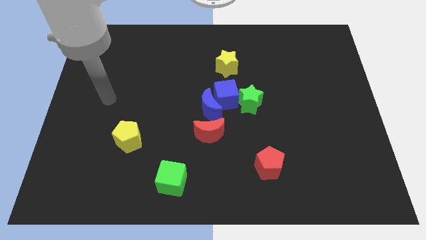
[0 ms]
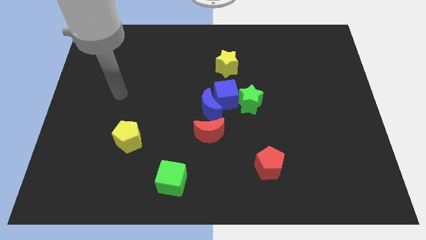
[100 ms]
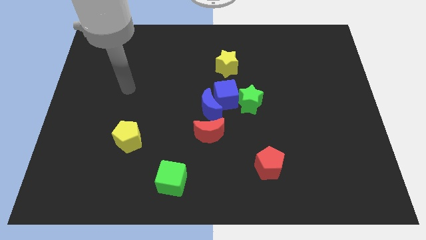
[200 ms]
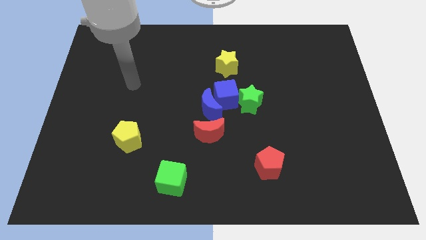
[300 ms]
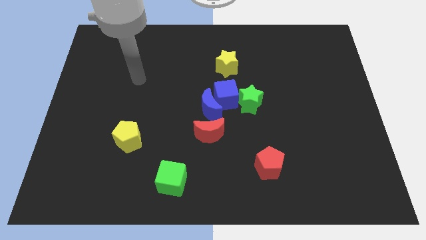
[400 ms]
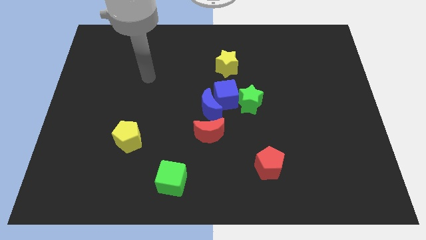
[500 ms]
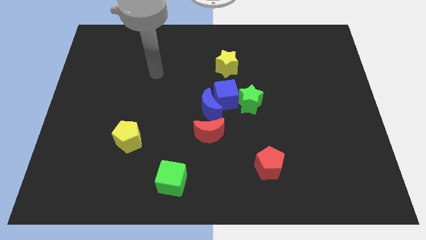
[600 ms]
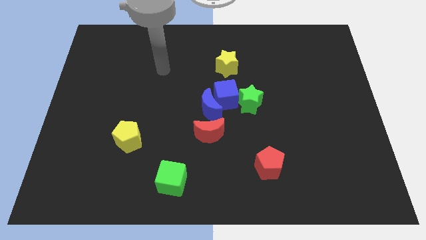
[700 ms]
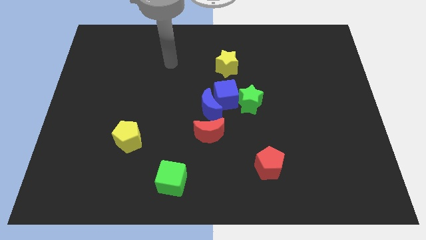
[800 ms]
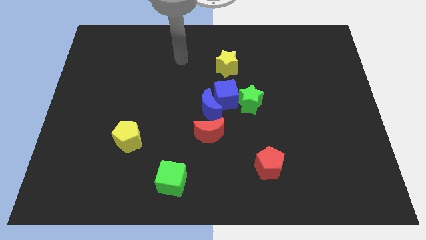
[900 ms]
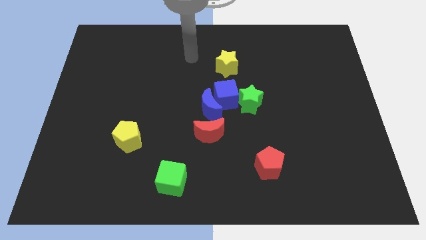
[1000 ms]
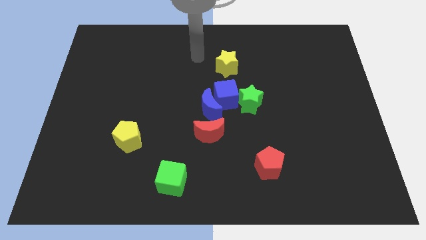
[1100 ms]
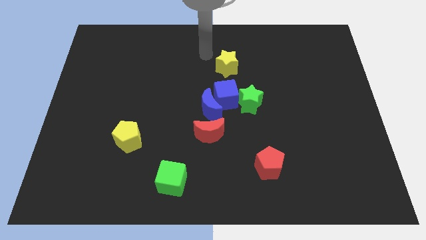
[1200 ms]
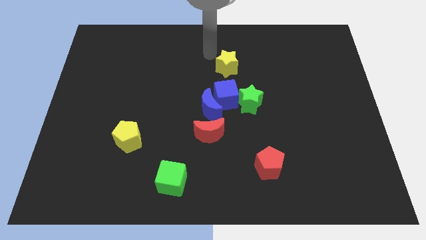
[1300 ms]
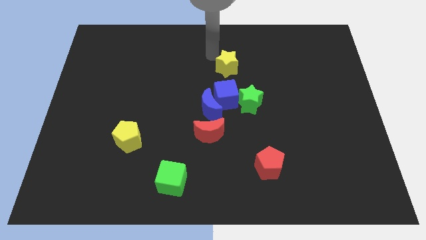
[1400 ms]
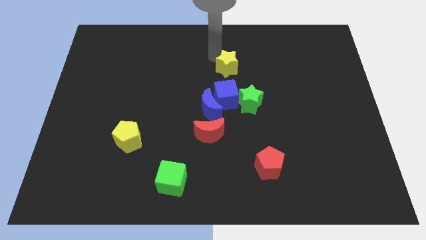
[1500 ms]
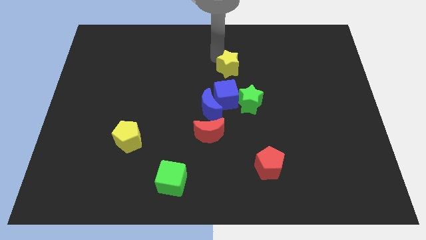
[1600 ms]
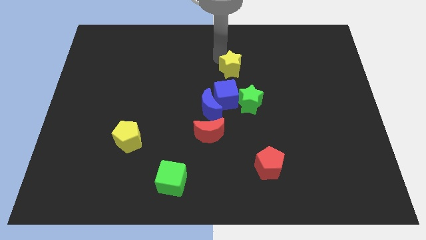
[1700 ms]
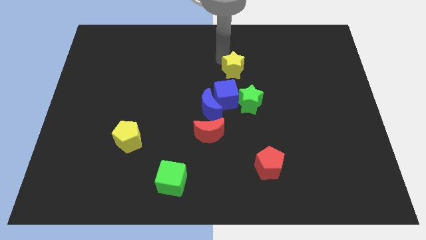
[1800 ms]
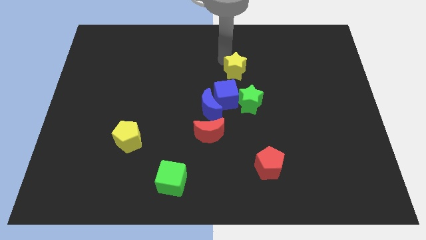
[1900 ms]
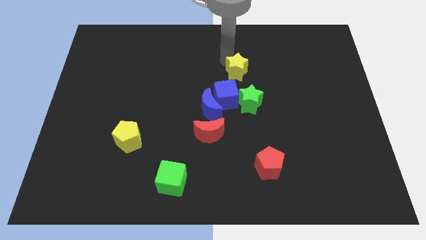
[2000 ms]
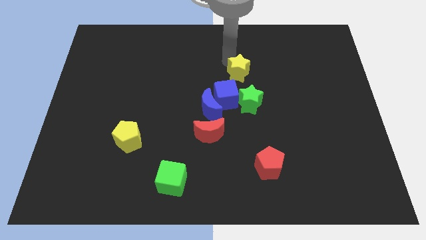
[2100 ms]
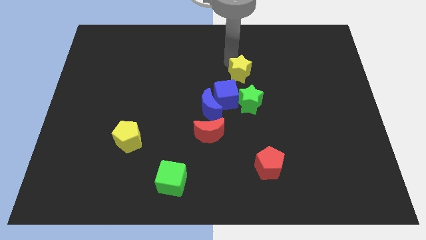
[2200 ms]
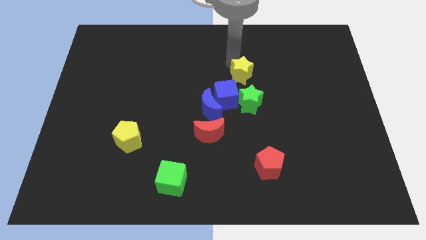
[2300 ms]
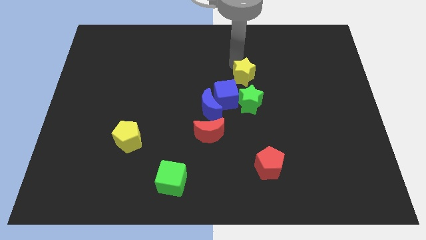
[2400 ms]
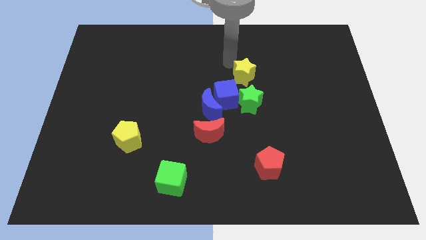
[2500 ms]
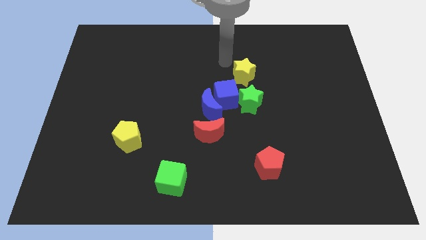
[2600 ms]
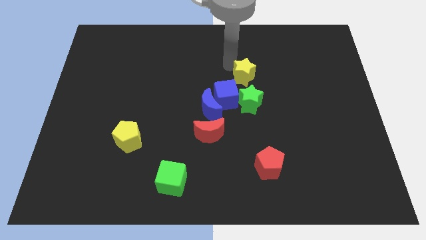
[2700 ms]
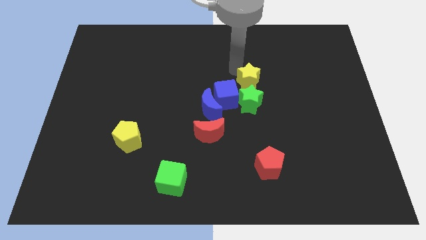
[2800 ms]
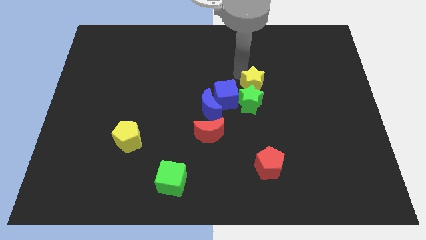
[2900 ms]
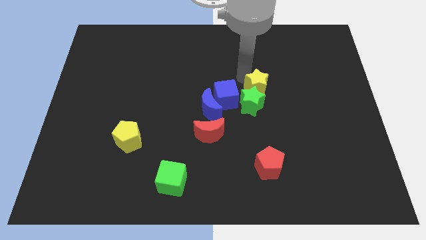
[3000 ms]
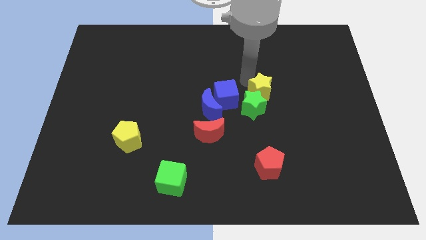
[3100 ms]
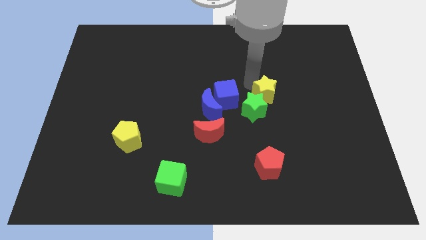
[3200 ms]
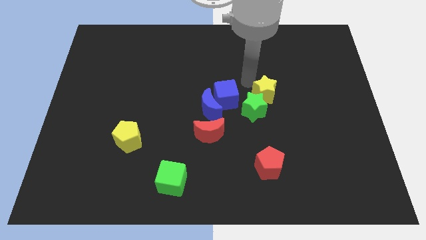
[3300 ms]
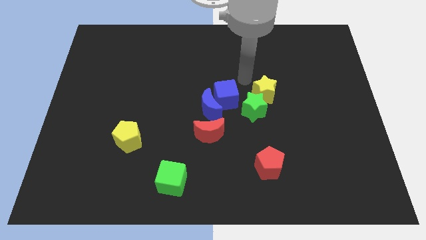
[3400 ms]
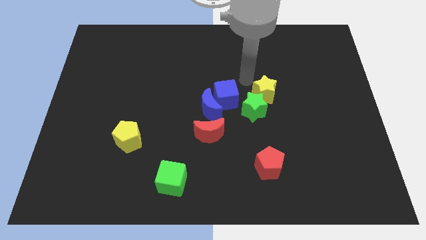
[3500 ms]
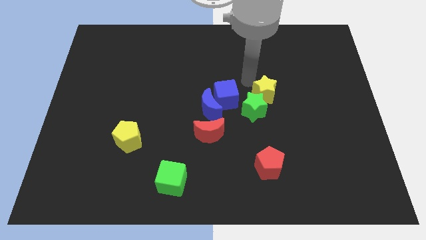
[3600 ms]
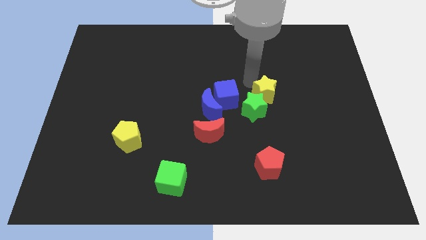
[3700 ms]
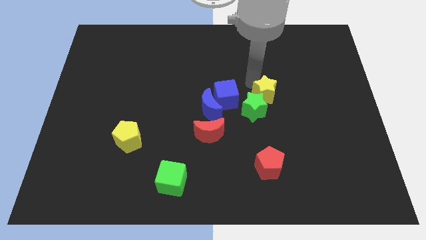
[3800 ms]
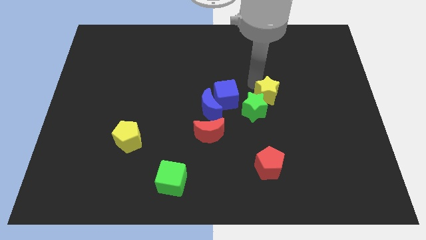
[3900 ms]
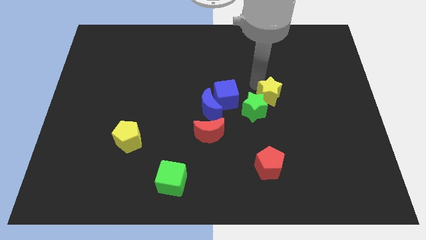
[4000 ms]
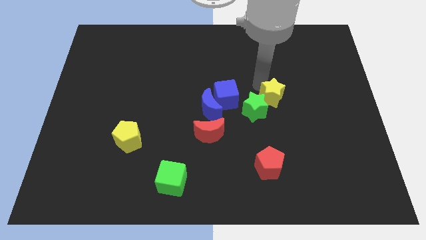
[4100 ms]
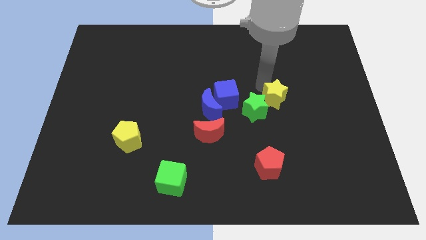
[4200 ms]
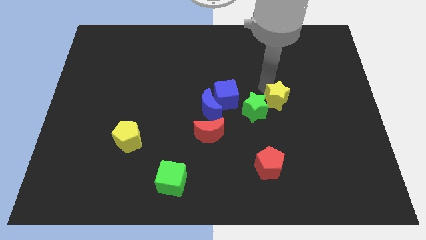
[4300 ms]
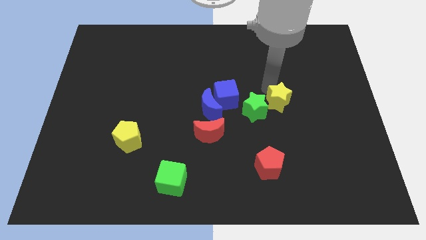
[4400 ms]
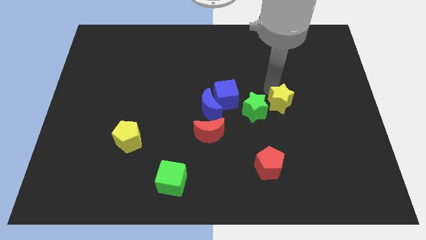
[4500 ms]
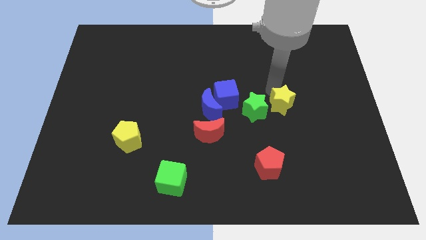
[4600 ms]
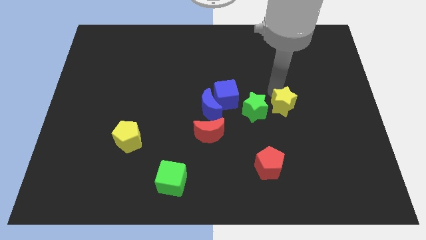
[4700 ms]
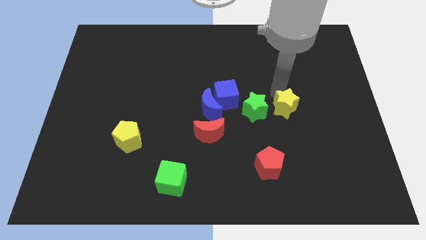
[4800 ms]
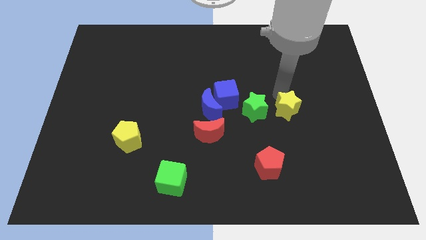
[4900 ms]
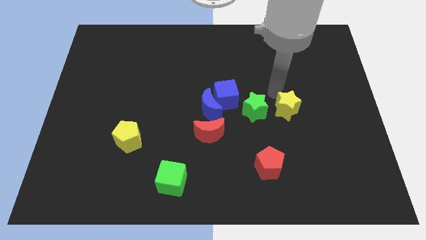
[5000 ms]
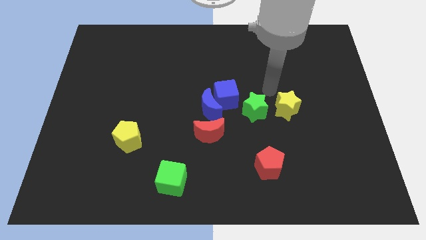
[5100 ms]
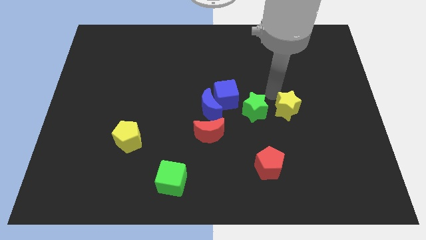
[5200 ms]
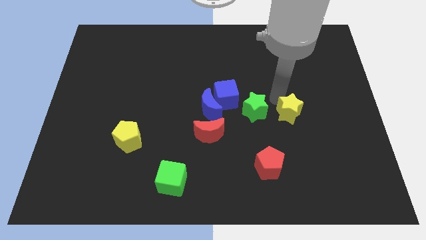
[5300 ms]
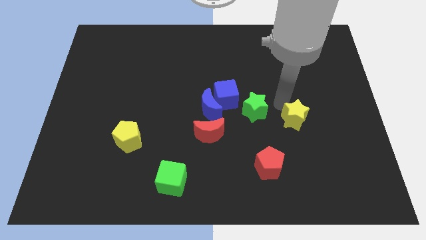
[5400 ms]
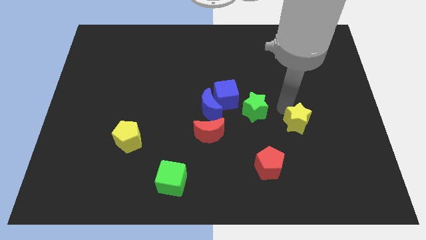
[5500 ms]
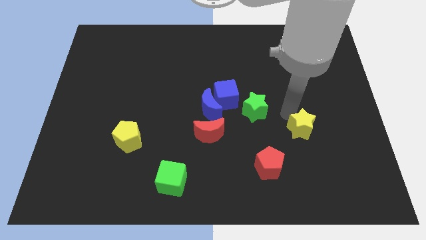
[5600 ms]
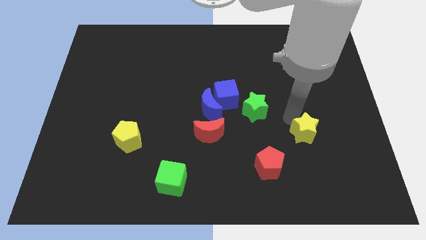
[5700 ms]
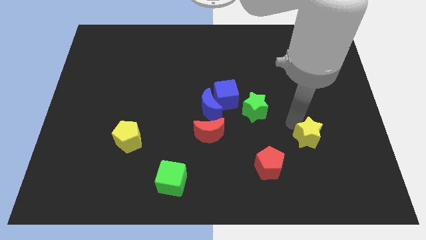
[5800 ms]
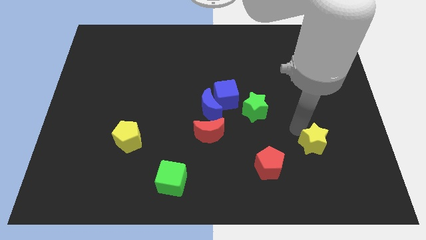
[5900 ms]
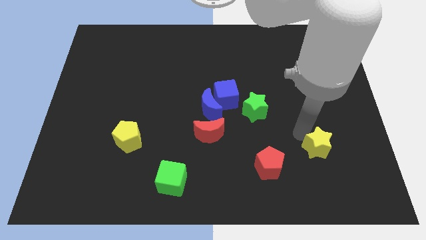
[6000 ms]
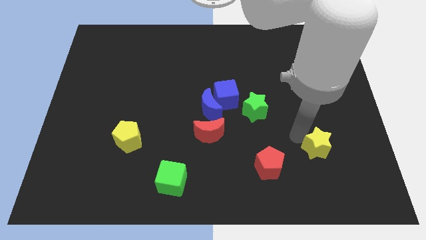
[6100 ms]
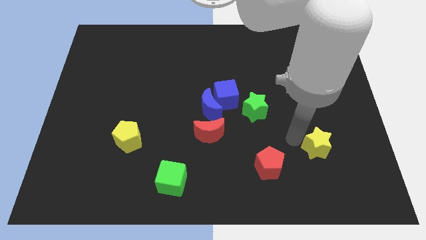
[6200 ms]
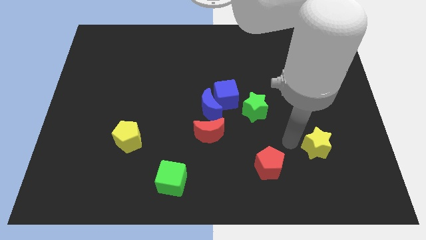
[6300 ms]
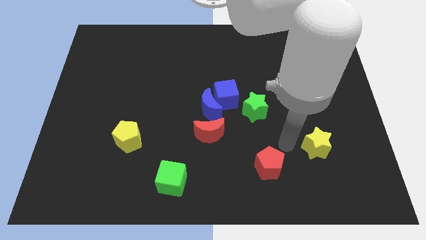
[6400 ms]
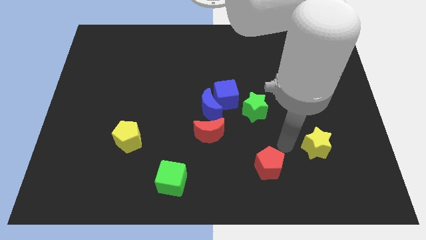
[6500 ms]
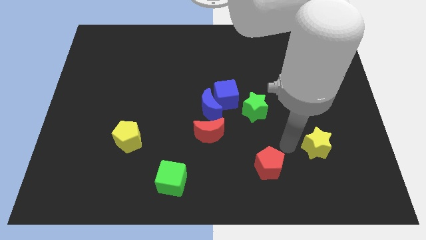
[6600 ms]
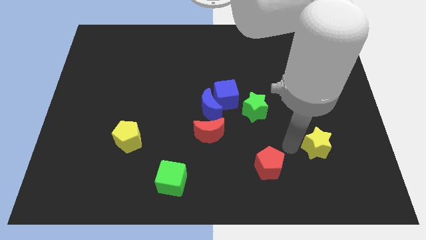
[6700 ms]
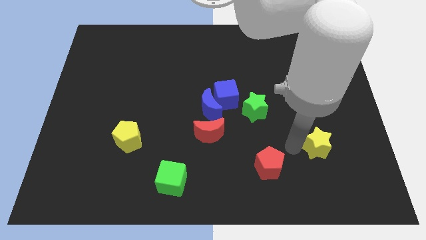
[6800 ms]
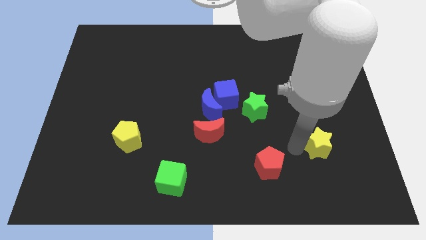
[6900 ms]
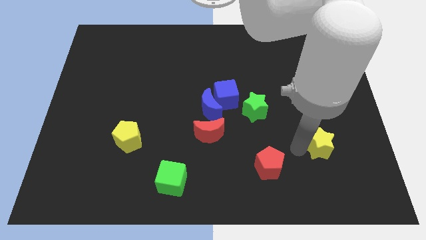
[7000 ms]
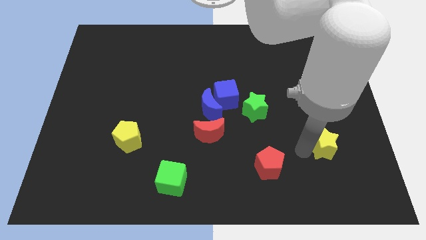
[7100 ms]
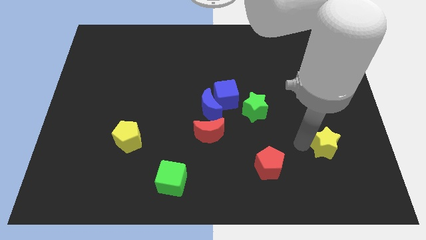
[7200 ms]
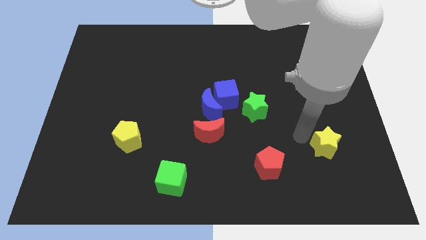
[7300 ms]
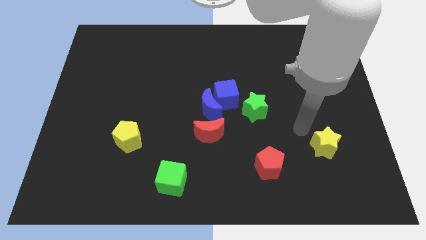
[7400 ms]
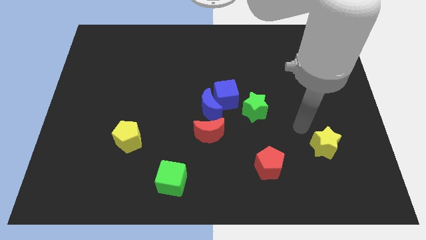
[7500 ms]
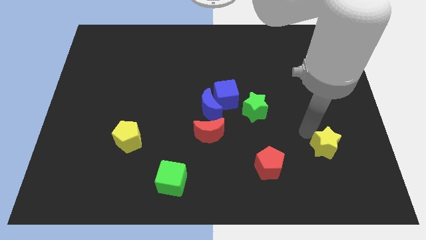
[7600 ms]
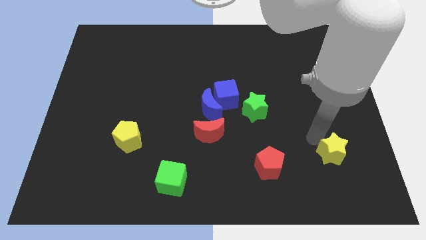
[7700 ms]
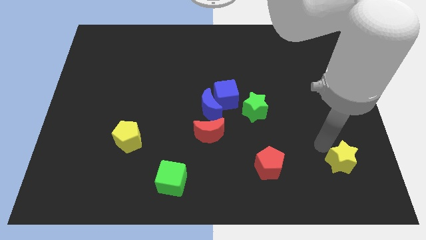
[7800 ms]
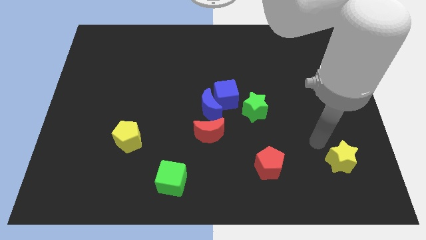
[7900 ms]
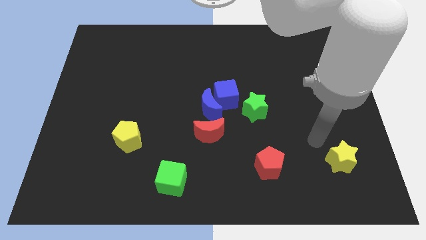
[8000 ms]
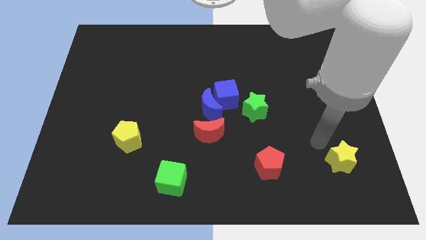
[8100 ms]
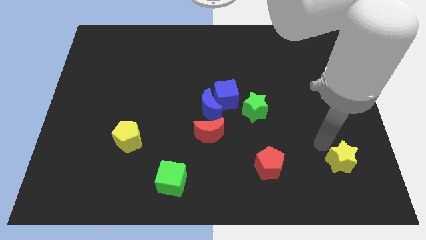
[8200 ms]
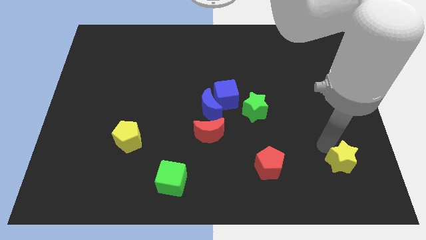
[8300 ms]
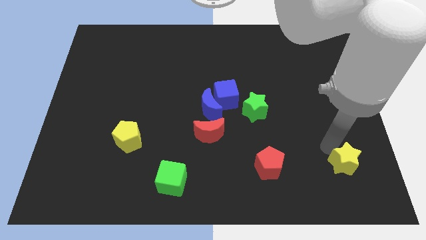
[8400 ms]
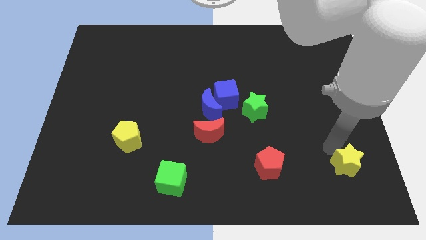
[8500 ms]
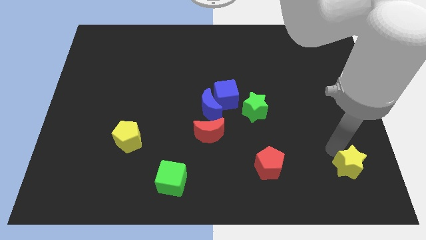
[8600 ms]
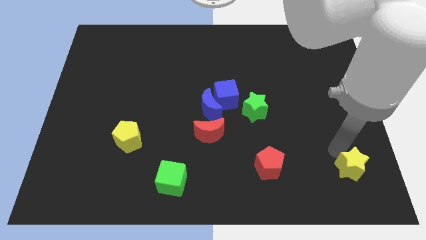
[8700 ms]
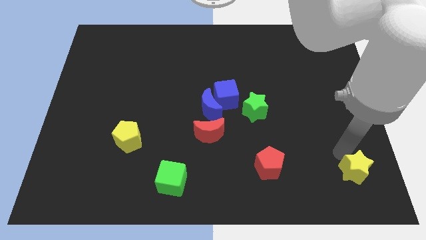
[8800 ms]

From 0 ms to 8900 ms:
move the yellow star to the bottom right
